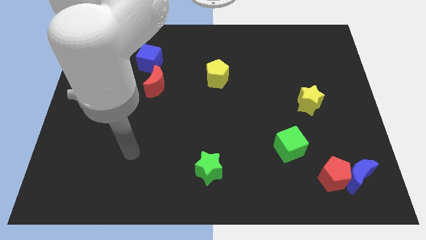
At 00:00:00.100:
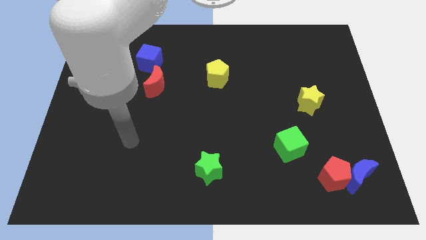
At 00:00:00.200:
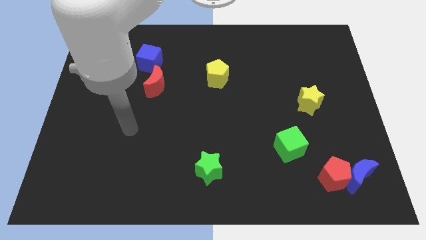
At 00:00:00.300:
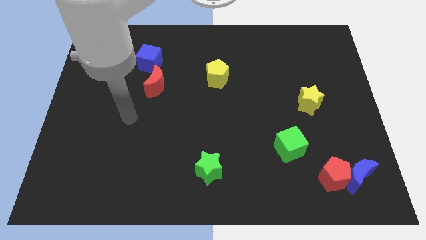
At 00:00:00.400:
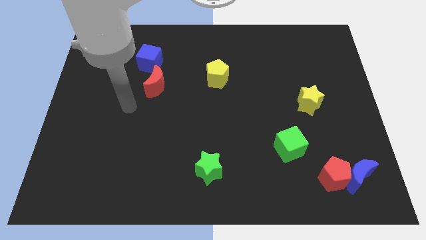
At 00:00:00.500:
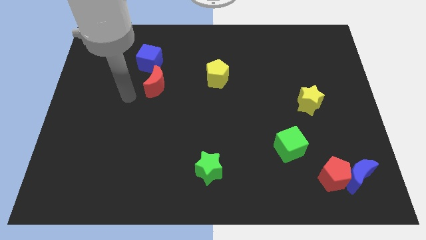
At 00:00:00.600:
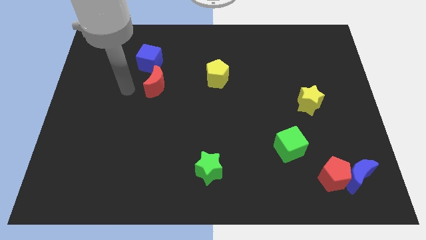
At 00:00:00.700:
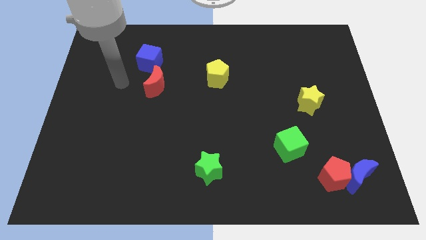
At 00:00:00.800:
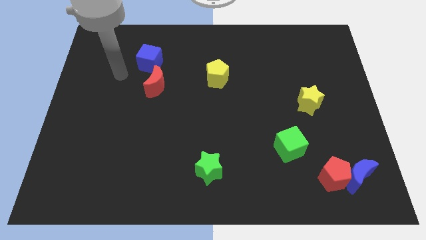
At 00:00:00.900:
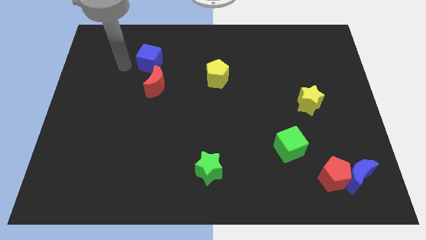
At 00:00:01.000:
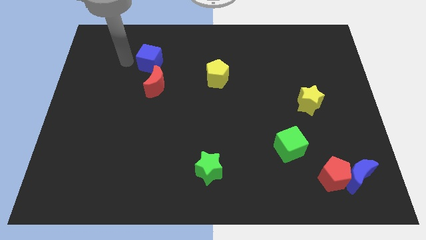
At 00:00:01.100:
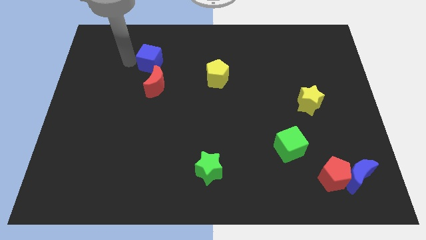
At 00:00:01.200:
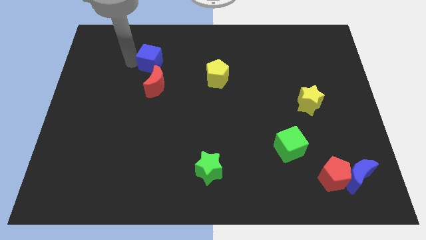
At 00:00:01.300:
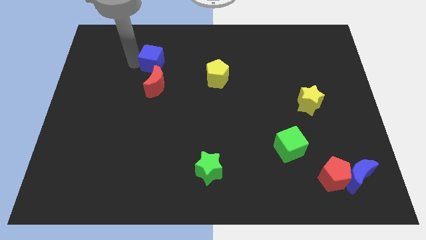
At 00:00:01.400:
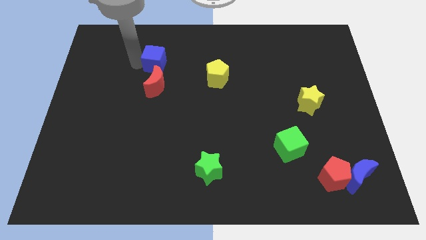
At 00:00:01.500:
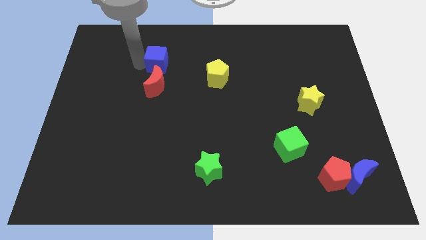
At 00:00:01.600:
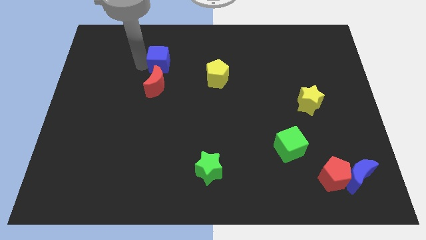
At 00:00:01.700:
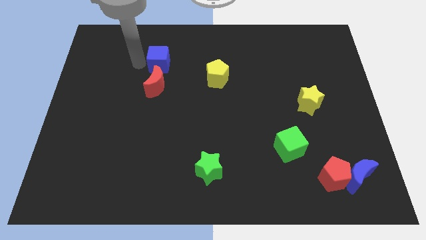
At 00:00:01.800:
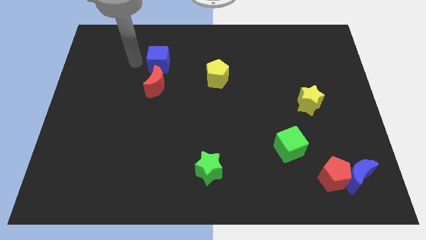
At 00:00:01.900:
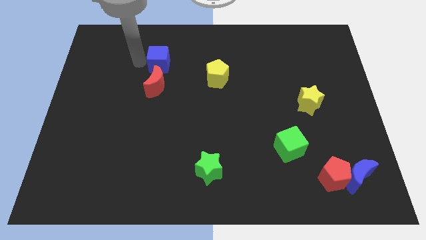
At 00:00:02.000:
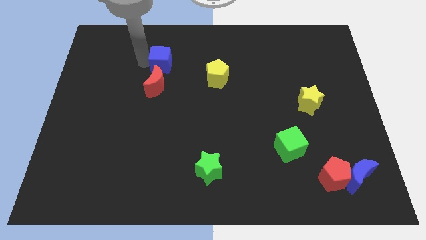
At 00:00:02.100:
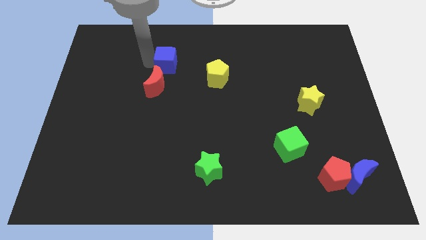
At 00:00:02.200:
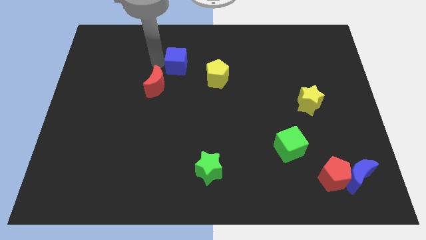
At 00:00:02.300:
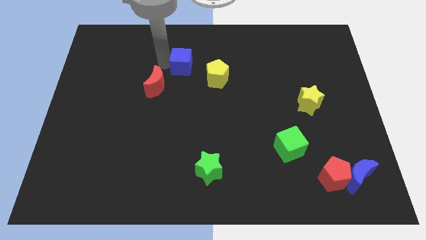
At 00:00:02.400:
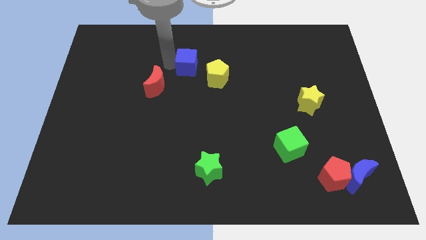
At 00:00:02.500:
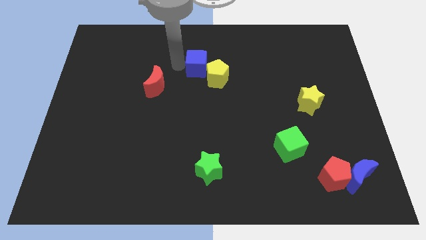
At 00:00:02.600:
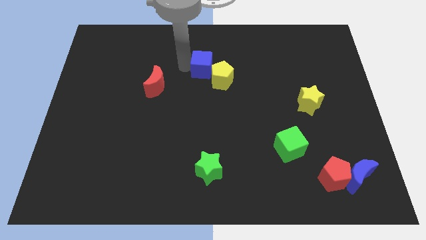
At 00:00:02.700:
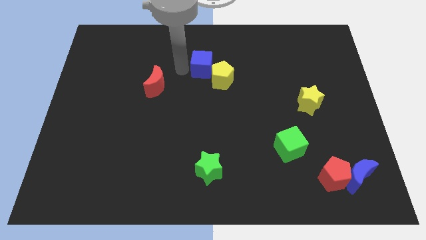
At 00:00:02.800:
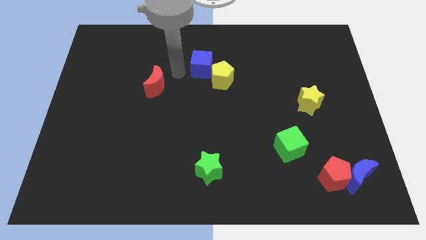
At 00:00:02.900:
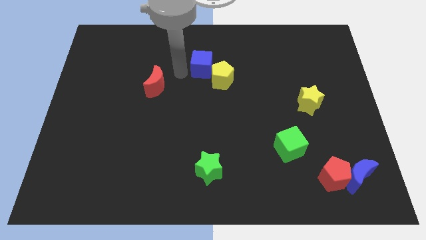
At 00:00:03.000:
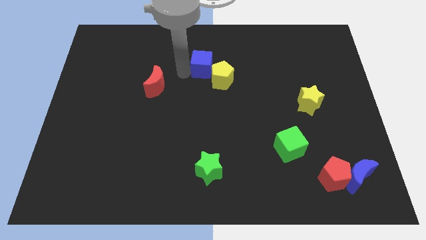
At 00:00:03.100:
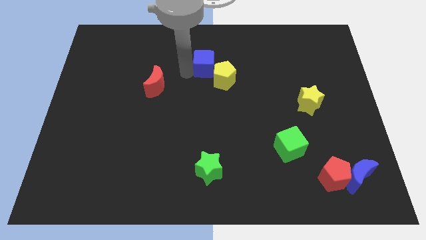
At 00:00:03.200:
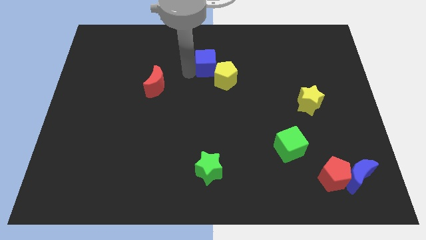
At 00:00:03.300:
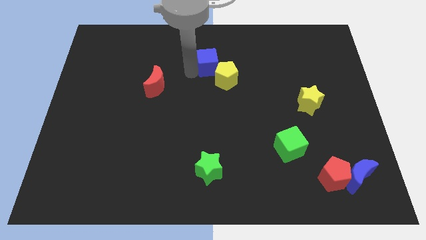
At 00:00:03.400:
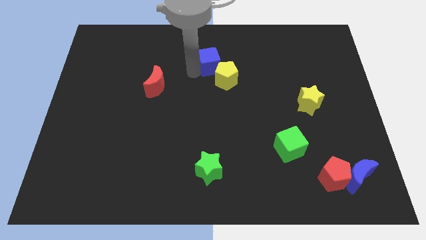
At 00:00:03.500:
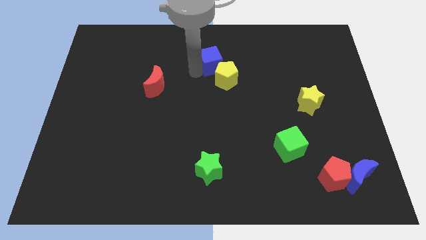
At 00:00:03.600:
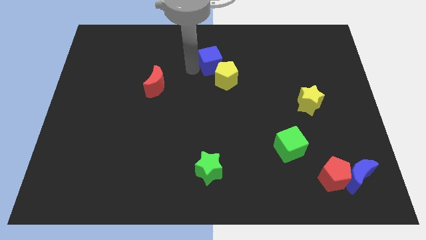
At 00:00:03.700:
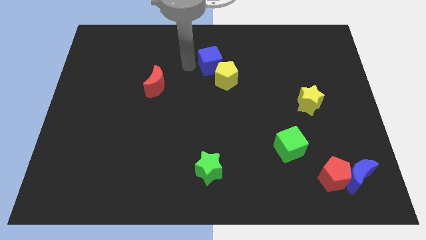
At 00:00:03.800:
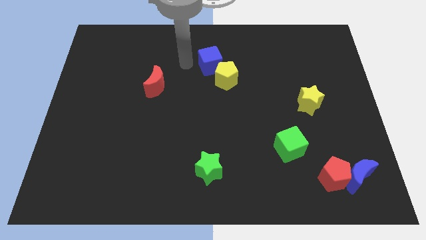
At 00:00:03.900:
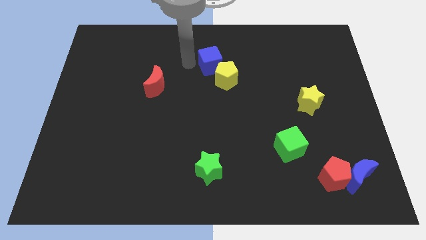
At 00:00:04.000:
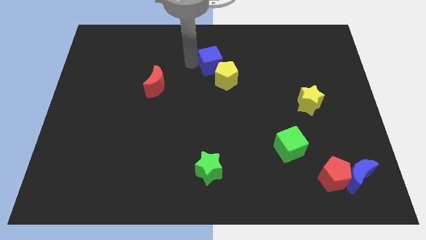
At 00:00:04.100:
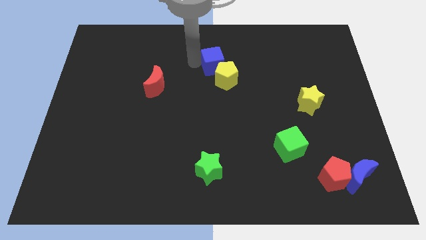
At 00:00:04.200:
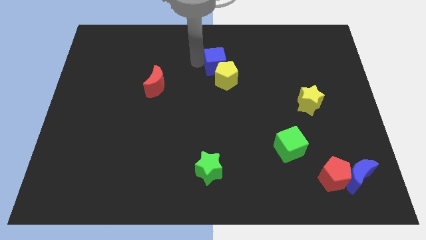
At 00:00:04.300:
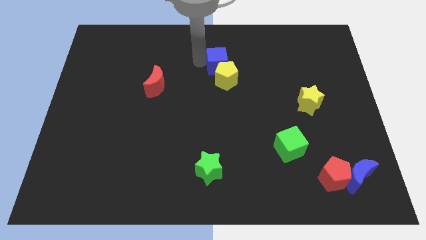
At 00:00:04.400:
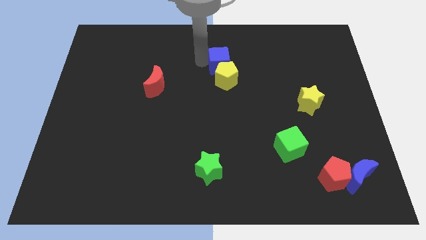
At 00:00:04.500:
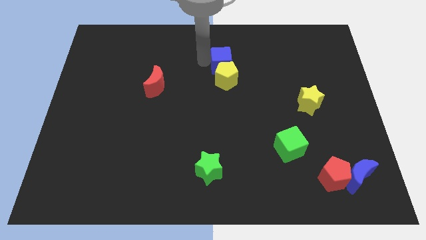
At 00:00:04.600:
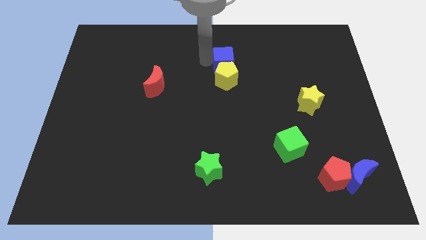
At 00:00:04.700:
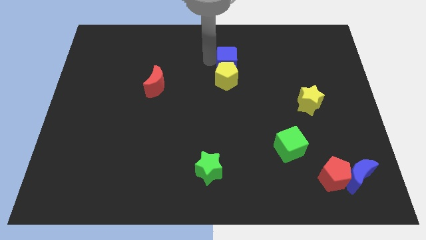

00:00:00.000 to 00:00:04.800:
slide the blue cube right

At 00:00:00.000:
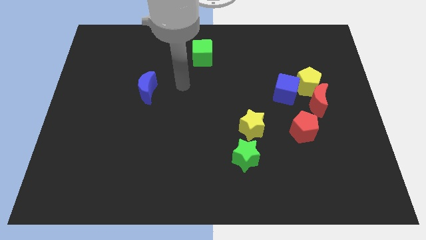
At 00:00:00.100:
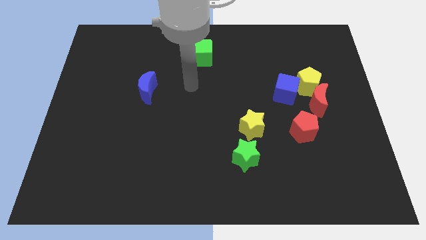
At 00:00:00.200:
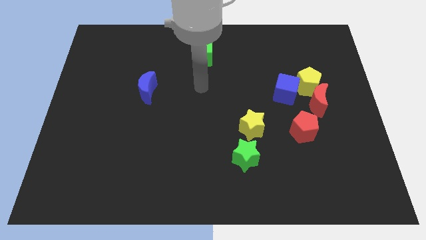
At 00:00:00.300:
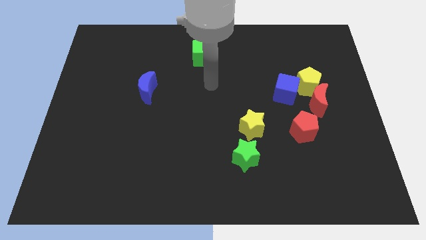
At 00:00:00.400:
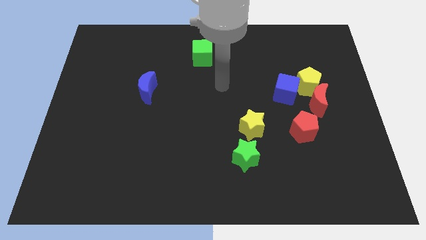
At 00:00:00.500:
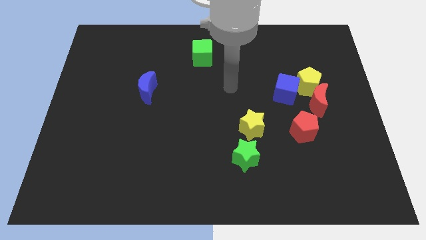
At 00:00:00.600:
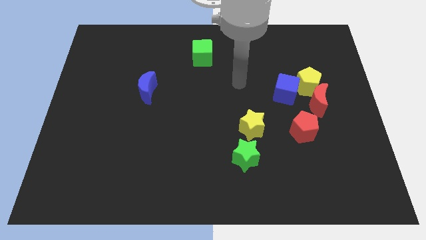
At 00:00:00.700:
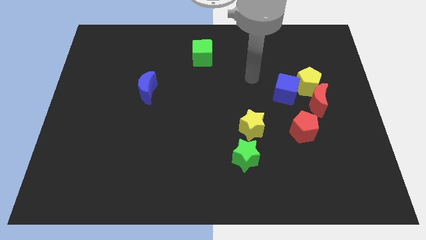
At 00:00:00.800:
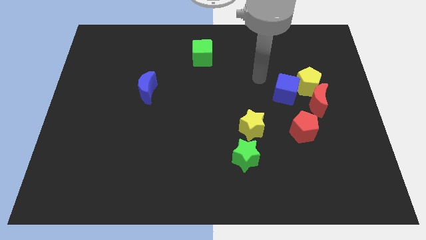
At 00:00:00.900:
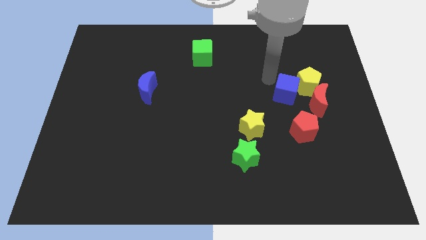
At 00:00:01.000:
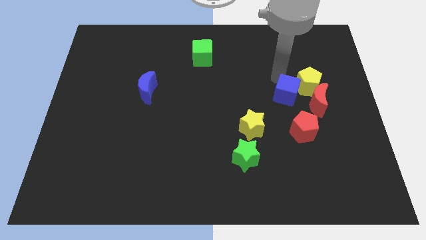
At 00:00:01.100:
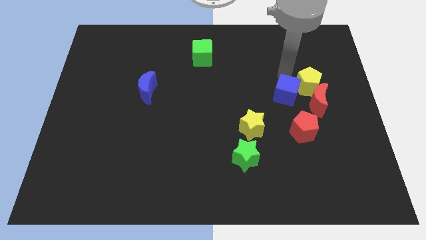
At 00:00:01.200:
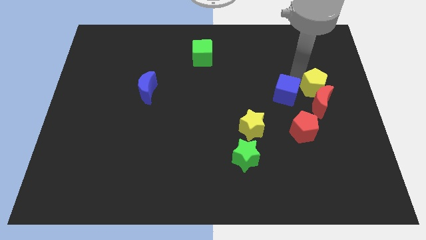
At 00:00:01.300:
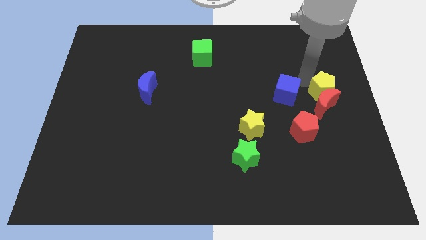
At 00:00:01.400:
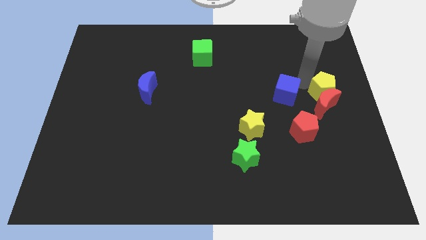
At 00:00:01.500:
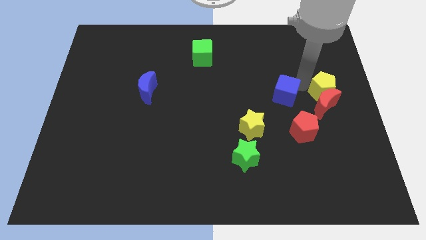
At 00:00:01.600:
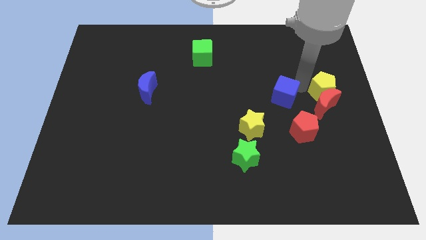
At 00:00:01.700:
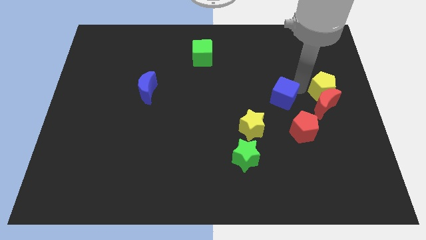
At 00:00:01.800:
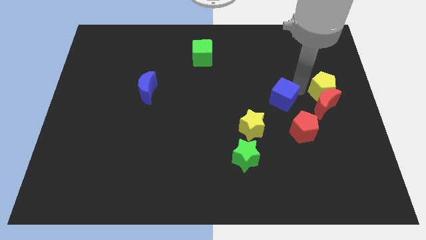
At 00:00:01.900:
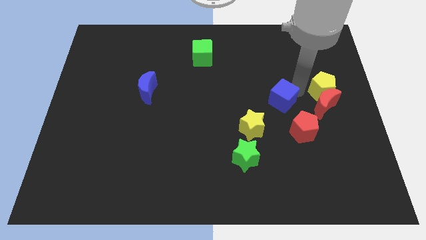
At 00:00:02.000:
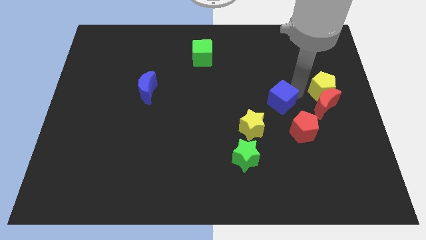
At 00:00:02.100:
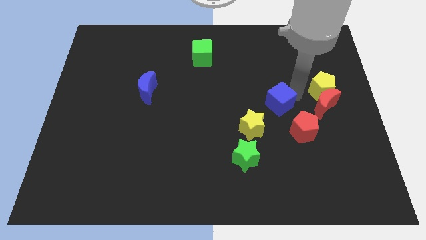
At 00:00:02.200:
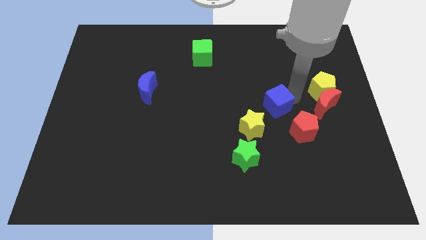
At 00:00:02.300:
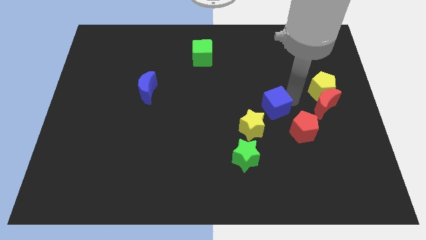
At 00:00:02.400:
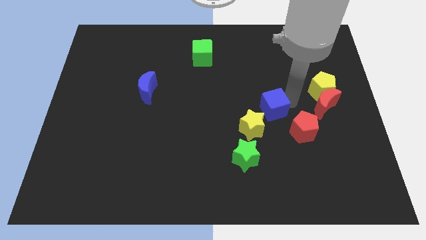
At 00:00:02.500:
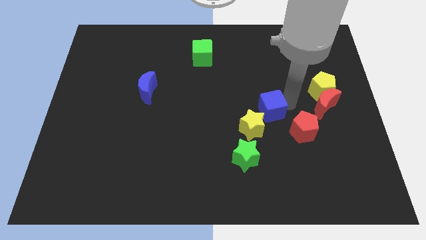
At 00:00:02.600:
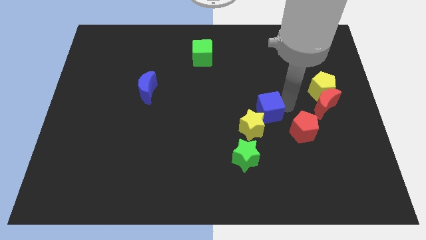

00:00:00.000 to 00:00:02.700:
push the blue cube down and then left a little bit

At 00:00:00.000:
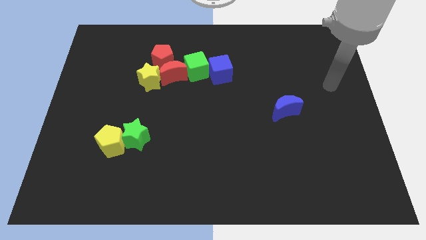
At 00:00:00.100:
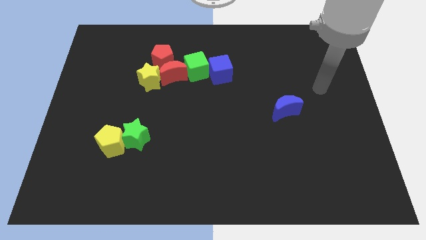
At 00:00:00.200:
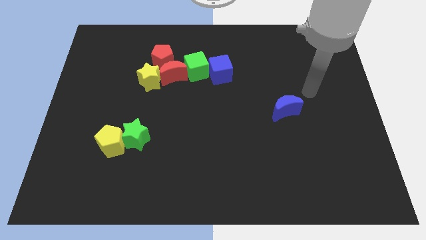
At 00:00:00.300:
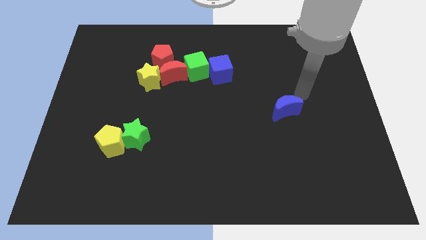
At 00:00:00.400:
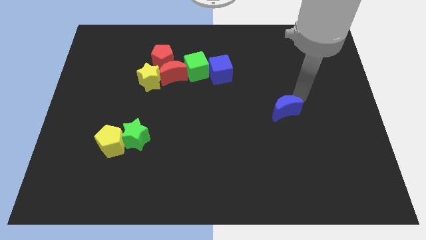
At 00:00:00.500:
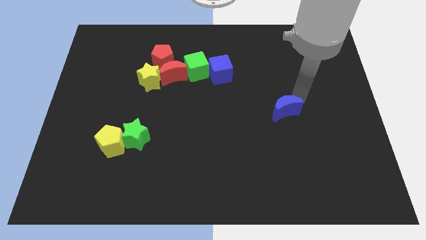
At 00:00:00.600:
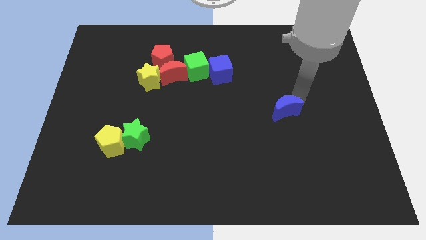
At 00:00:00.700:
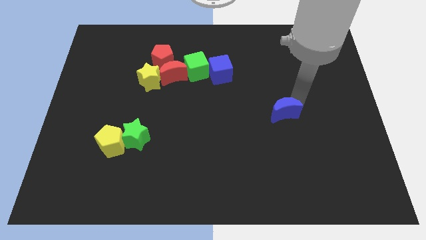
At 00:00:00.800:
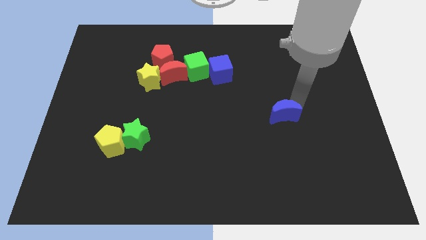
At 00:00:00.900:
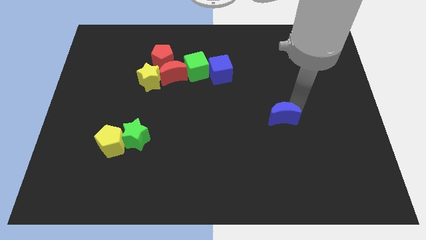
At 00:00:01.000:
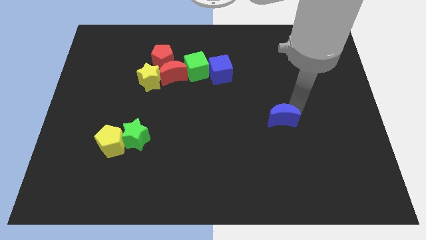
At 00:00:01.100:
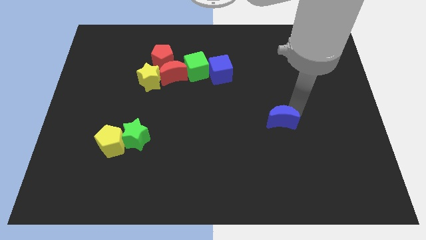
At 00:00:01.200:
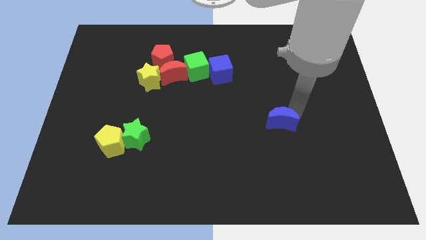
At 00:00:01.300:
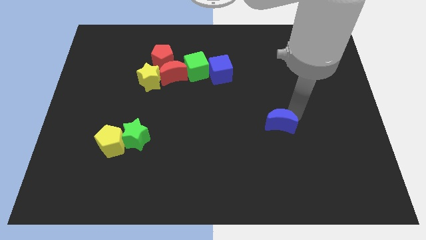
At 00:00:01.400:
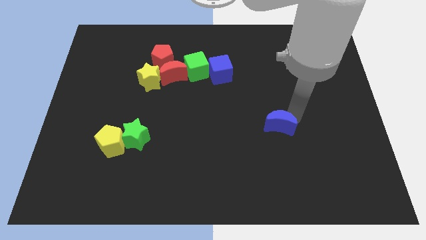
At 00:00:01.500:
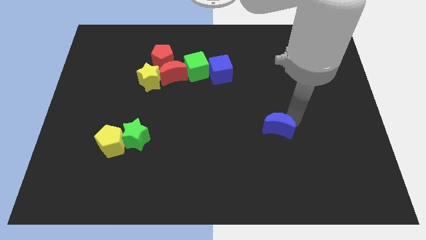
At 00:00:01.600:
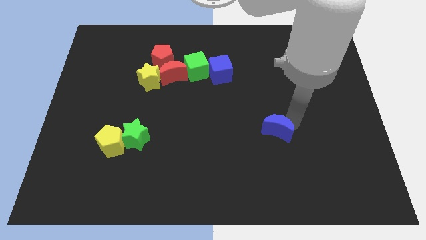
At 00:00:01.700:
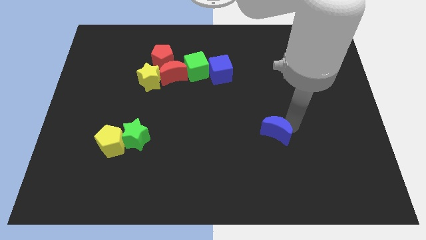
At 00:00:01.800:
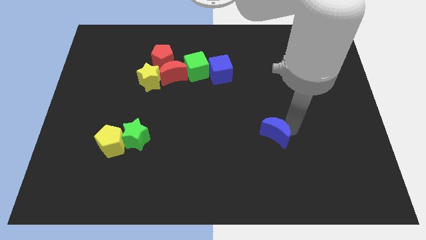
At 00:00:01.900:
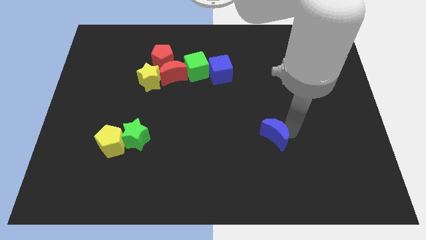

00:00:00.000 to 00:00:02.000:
slightly slide the blue moon downwards and left
